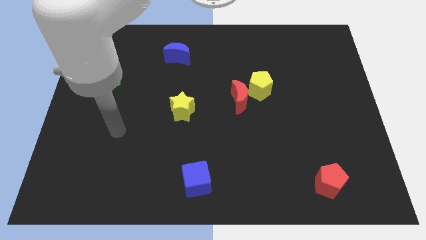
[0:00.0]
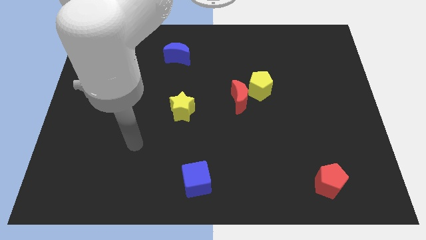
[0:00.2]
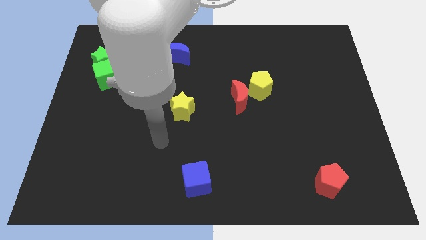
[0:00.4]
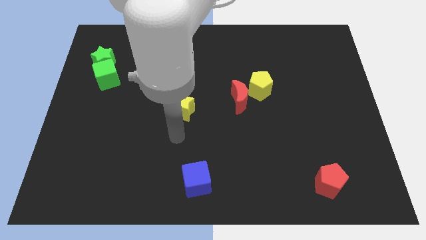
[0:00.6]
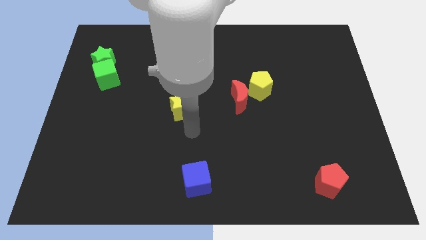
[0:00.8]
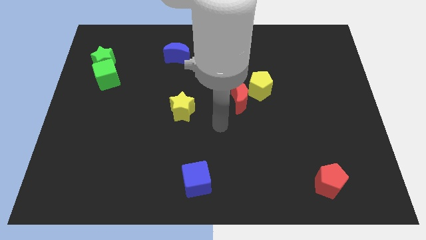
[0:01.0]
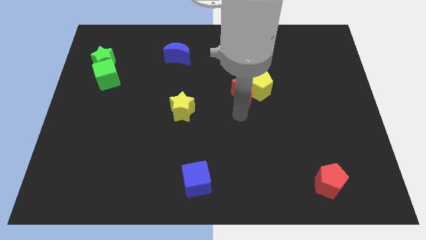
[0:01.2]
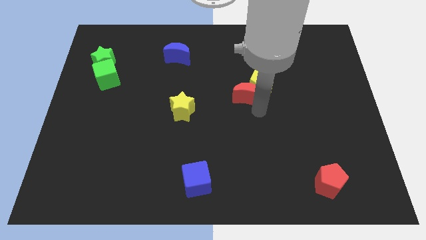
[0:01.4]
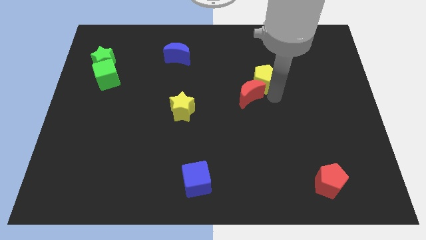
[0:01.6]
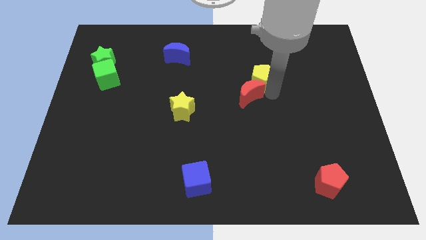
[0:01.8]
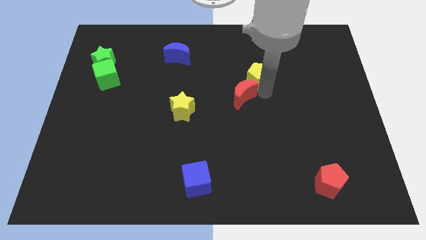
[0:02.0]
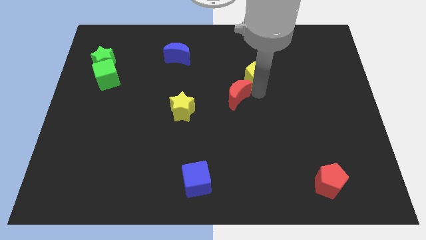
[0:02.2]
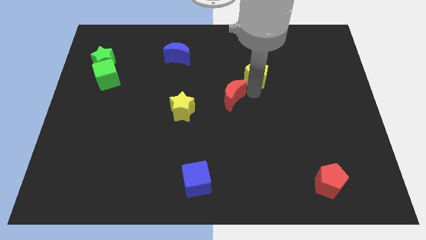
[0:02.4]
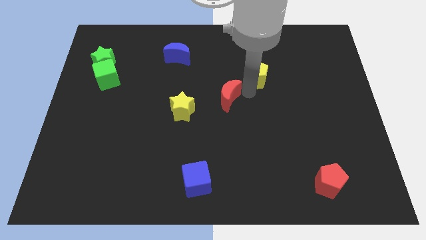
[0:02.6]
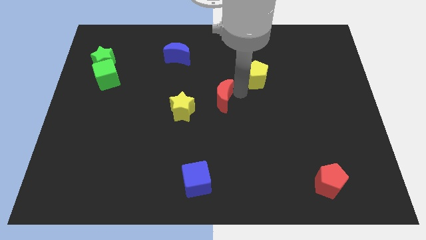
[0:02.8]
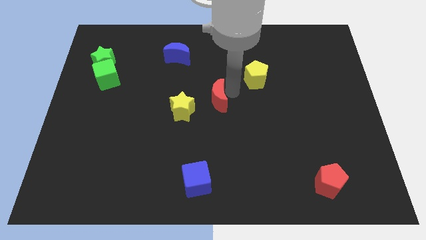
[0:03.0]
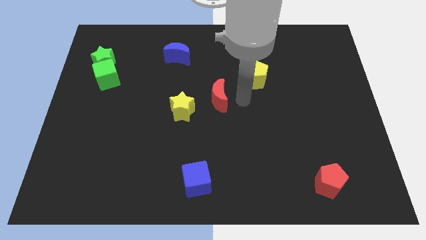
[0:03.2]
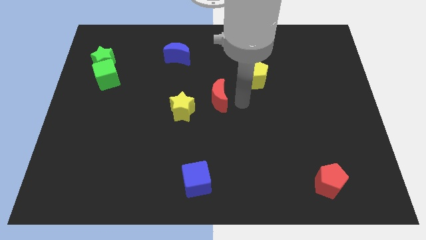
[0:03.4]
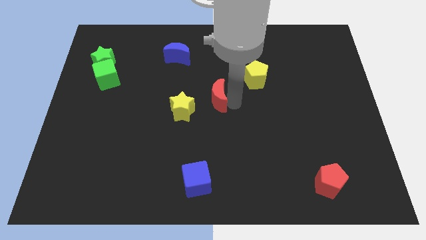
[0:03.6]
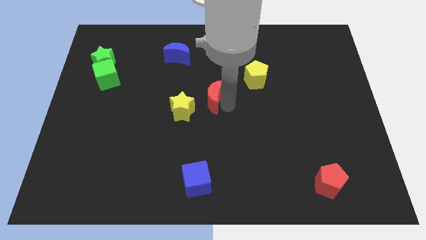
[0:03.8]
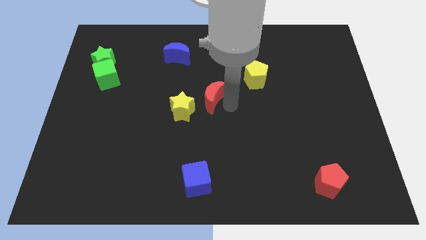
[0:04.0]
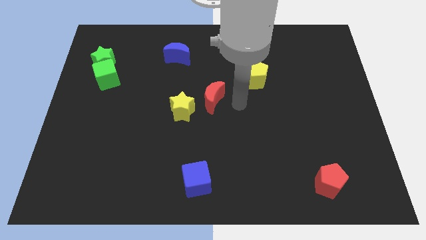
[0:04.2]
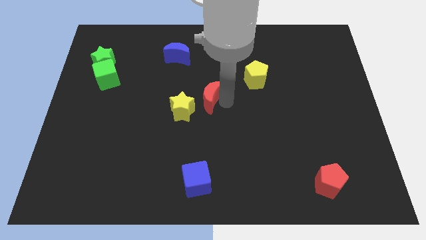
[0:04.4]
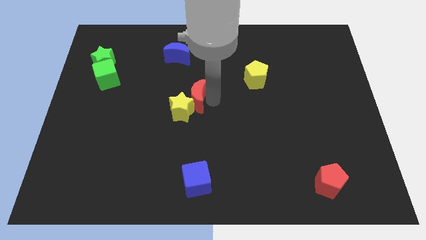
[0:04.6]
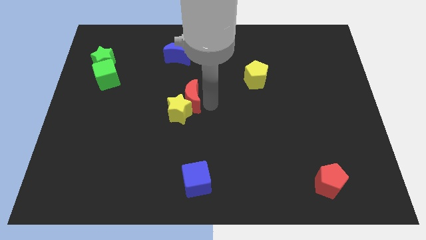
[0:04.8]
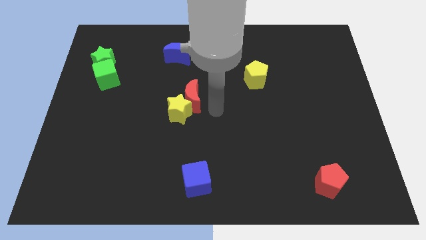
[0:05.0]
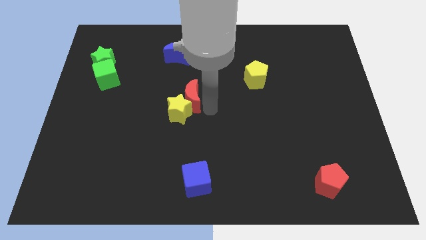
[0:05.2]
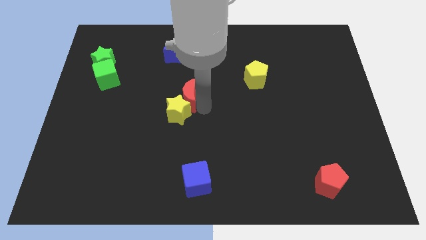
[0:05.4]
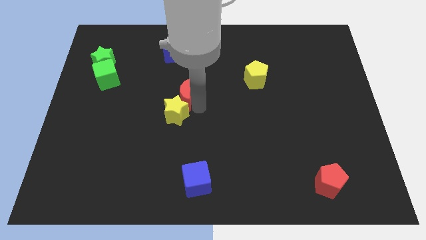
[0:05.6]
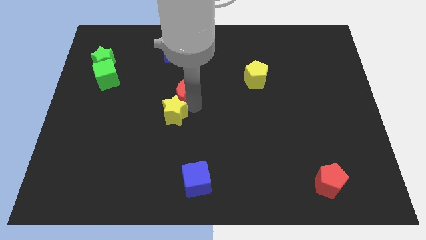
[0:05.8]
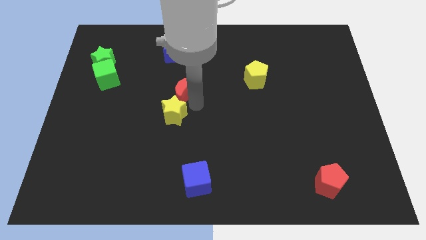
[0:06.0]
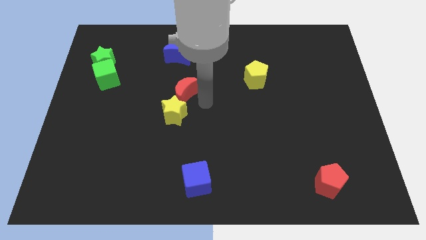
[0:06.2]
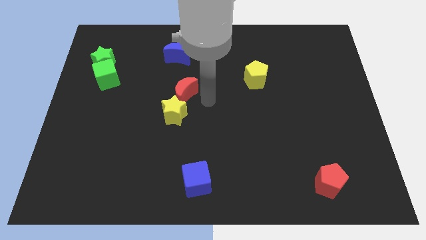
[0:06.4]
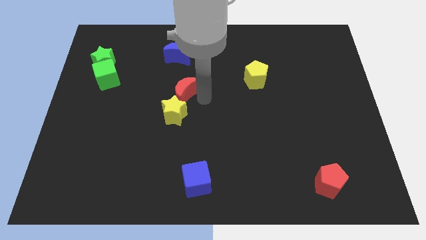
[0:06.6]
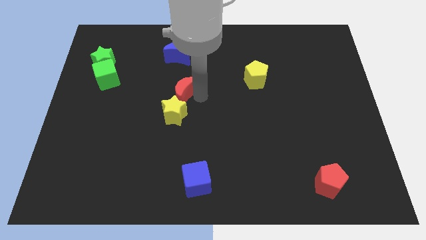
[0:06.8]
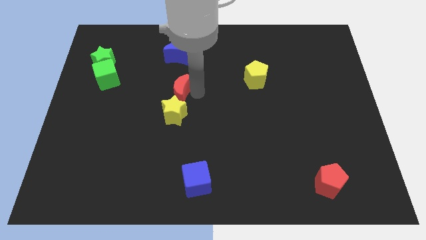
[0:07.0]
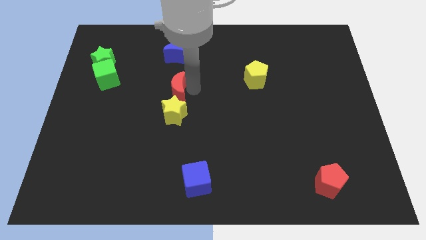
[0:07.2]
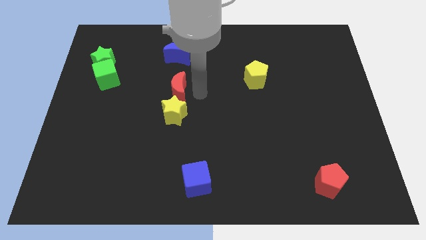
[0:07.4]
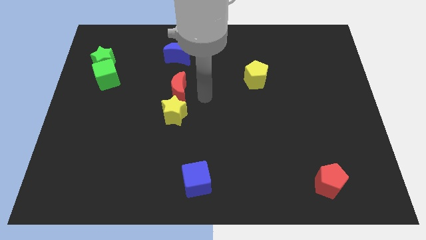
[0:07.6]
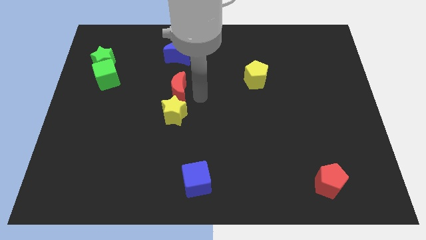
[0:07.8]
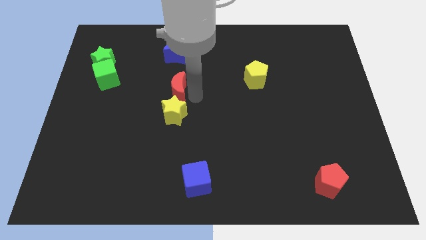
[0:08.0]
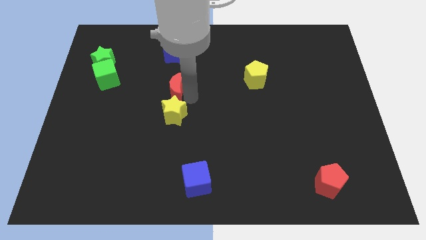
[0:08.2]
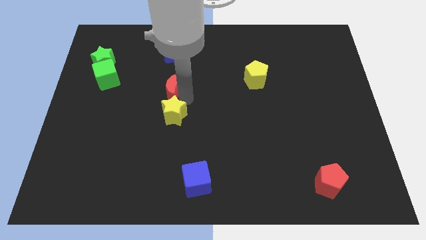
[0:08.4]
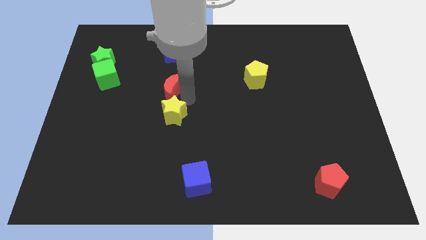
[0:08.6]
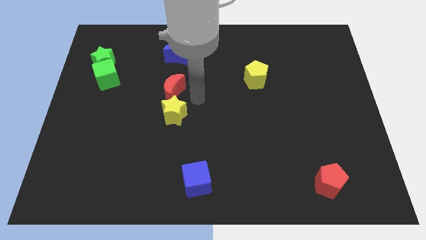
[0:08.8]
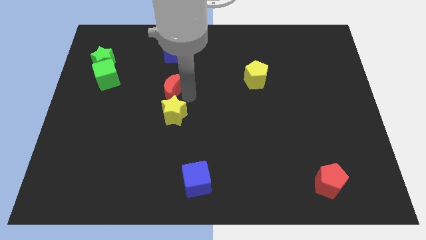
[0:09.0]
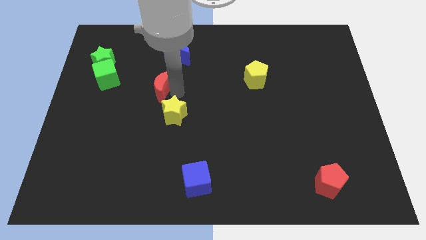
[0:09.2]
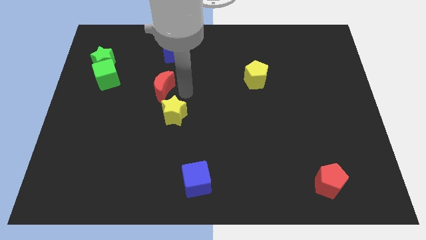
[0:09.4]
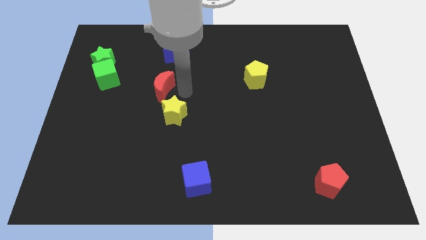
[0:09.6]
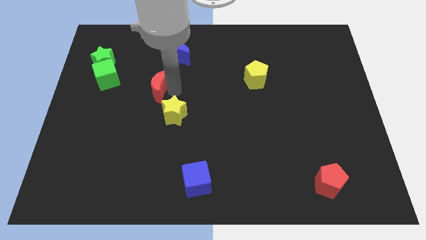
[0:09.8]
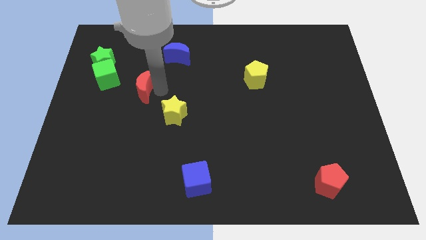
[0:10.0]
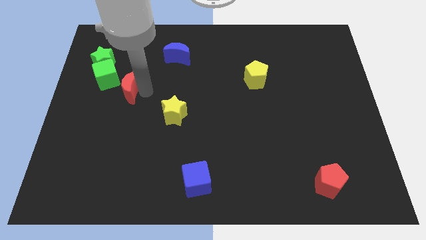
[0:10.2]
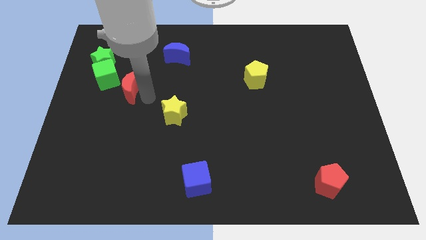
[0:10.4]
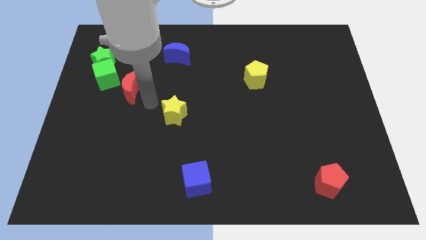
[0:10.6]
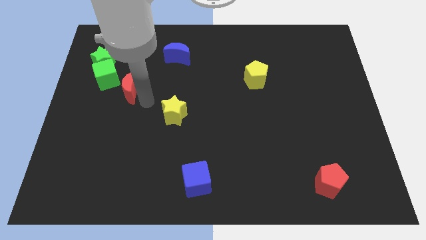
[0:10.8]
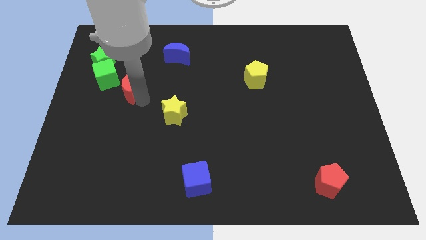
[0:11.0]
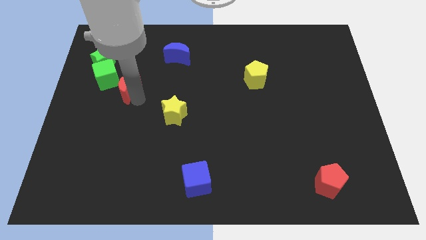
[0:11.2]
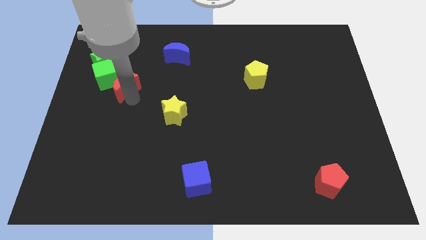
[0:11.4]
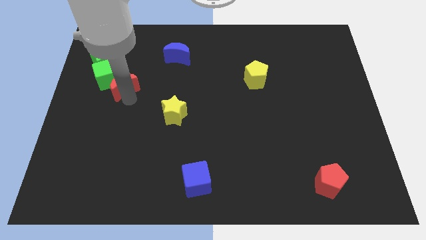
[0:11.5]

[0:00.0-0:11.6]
move the red moon next to the green cube

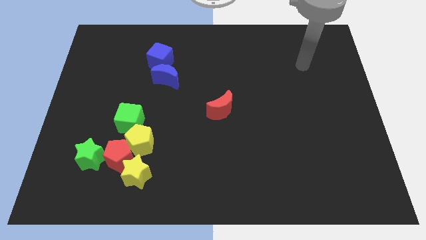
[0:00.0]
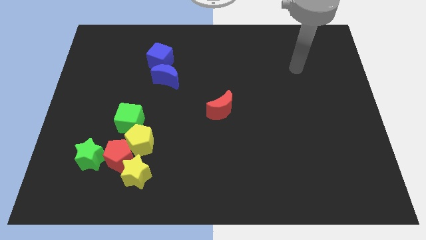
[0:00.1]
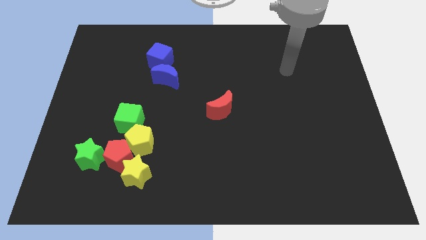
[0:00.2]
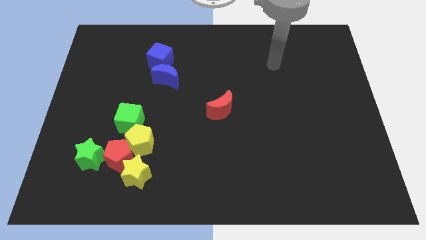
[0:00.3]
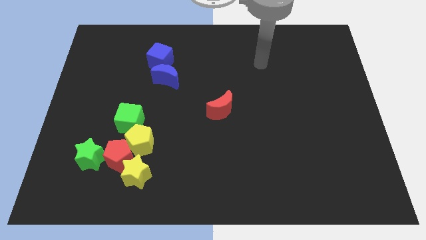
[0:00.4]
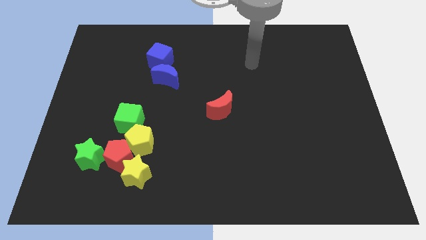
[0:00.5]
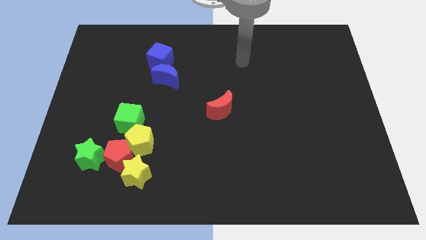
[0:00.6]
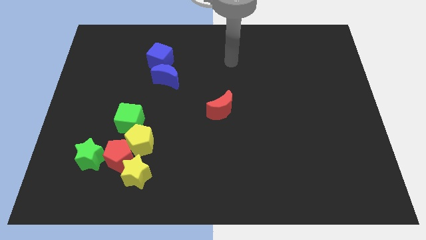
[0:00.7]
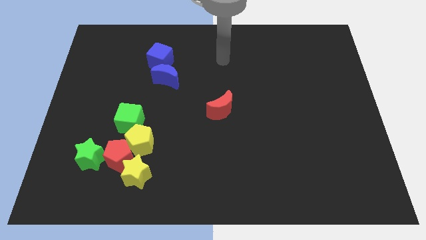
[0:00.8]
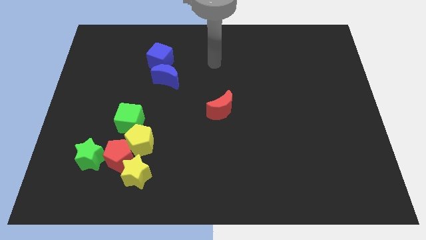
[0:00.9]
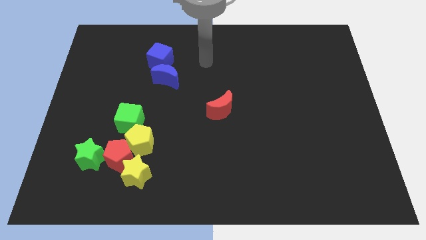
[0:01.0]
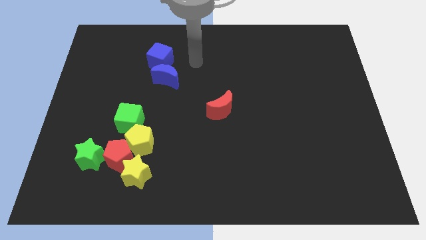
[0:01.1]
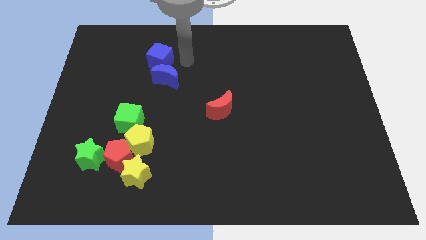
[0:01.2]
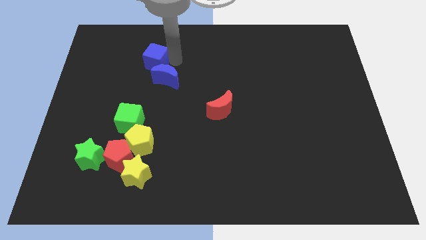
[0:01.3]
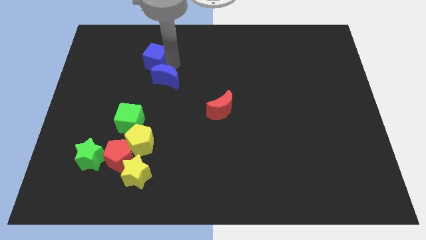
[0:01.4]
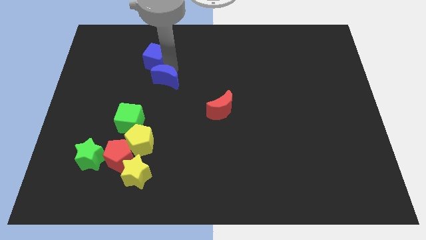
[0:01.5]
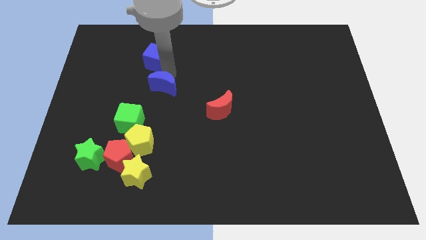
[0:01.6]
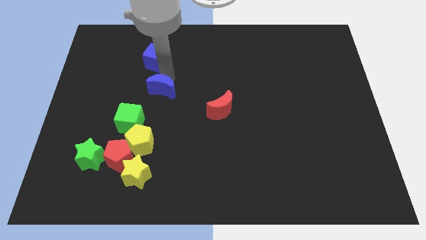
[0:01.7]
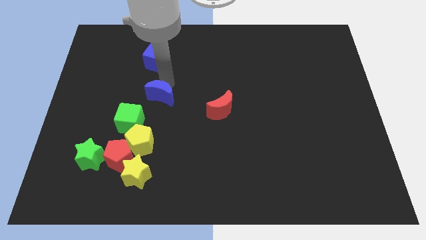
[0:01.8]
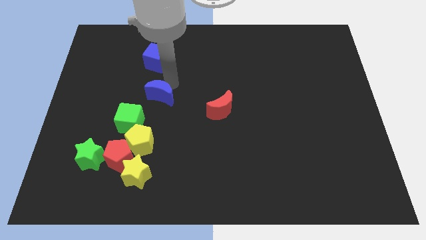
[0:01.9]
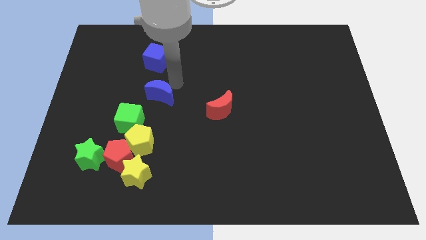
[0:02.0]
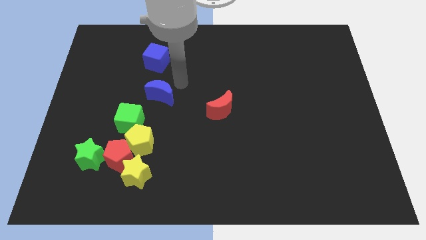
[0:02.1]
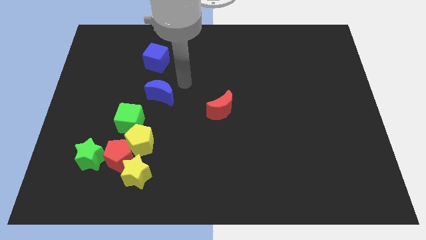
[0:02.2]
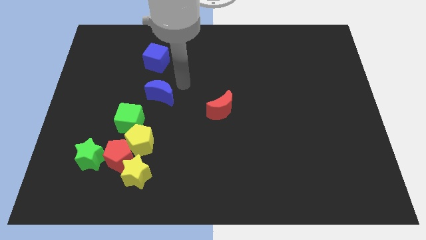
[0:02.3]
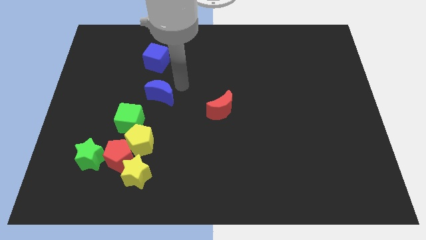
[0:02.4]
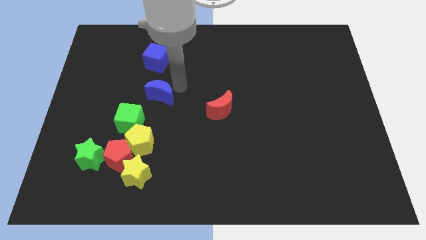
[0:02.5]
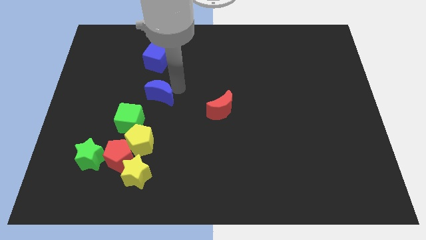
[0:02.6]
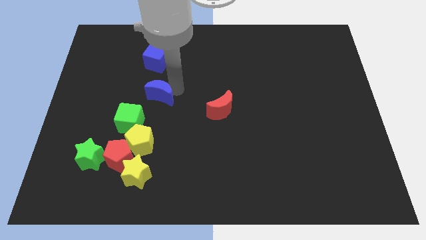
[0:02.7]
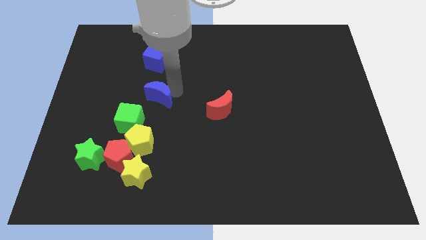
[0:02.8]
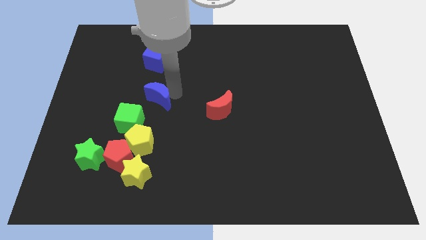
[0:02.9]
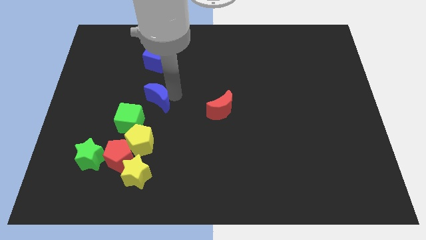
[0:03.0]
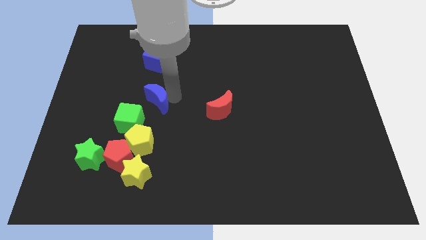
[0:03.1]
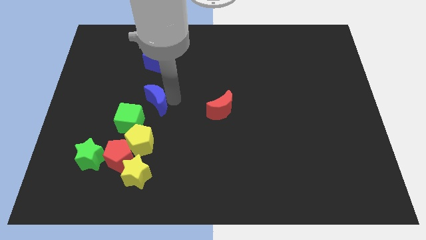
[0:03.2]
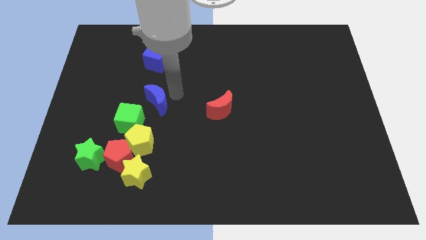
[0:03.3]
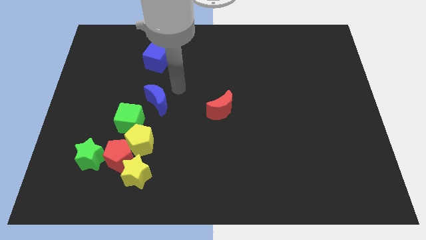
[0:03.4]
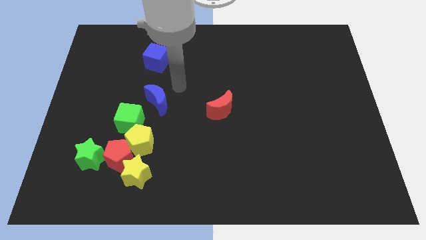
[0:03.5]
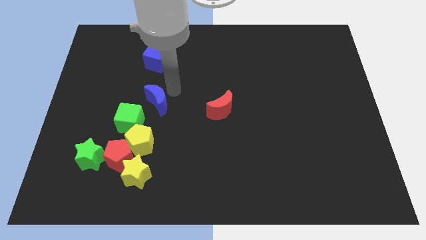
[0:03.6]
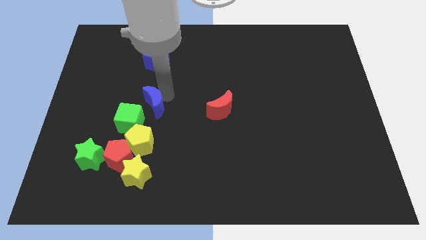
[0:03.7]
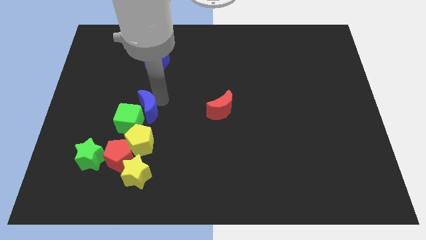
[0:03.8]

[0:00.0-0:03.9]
push the blue moon to the green cube
